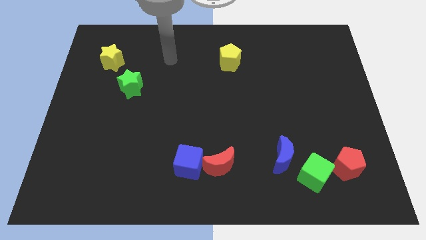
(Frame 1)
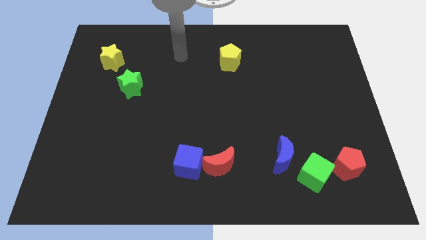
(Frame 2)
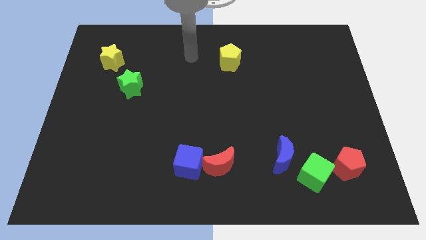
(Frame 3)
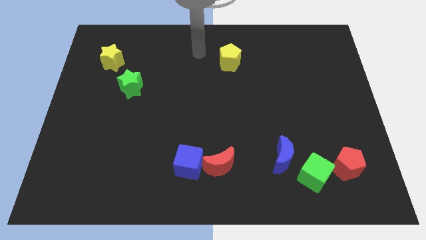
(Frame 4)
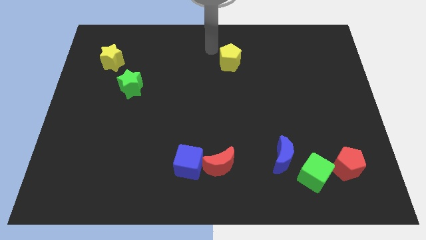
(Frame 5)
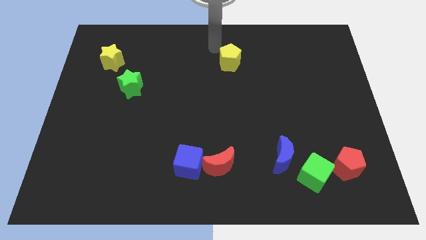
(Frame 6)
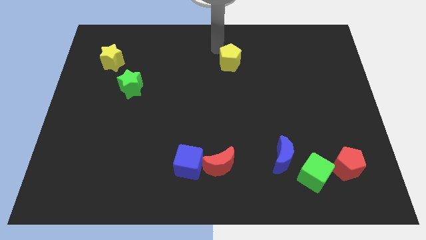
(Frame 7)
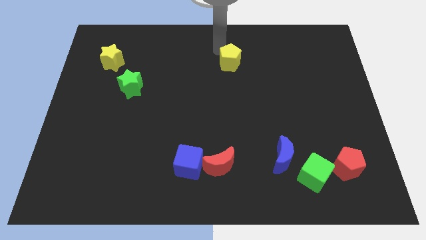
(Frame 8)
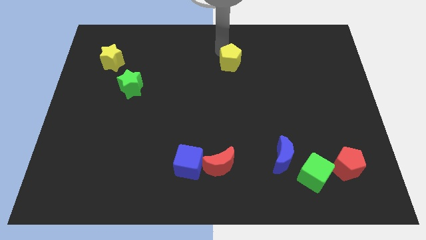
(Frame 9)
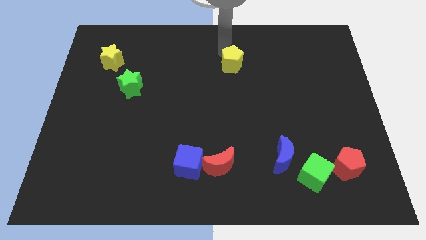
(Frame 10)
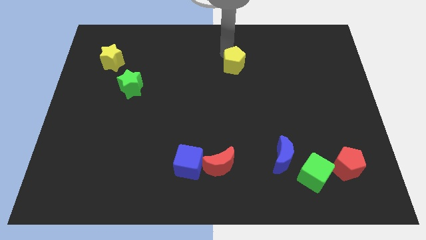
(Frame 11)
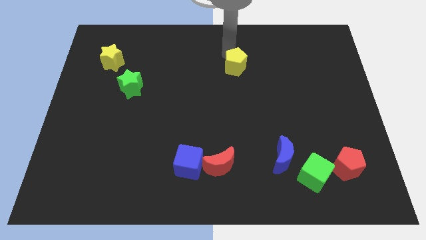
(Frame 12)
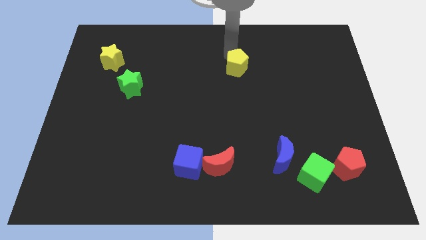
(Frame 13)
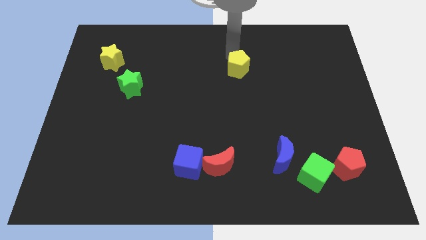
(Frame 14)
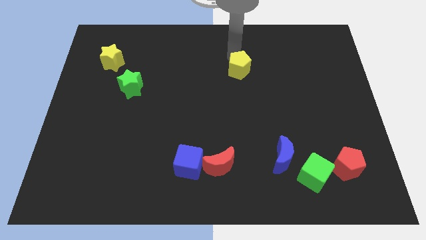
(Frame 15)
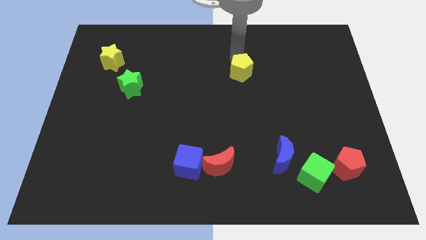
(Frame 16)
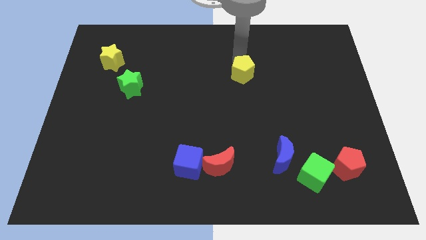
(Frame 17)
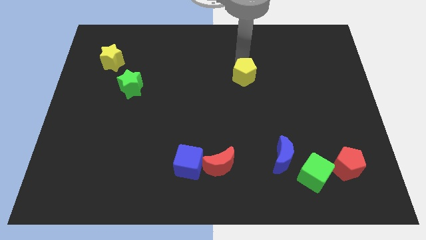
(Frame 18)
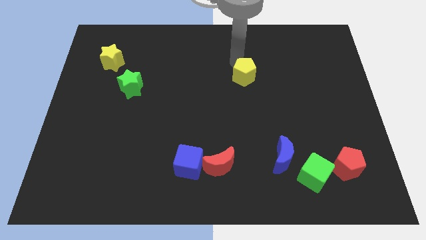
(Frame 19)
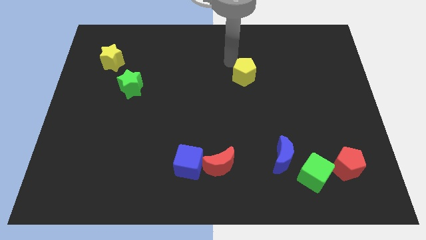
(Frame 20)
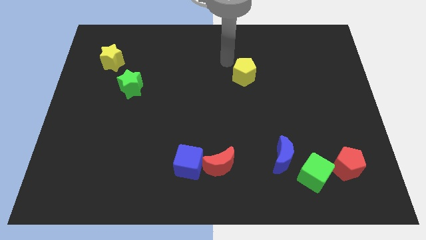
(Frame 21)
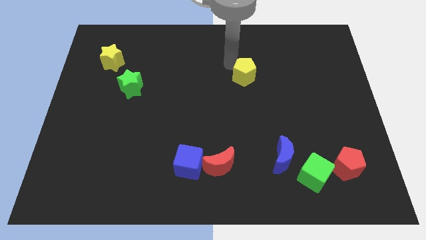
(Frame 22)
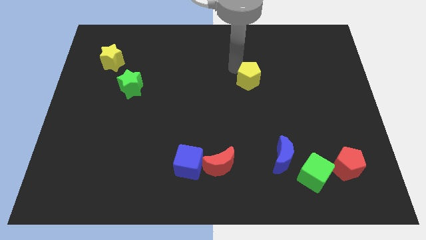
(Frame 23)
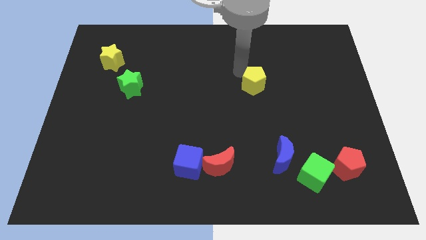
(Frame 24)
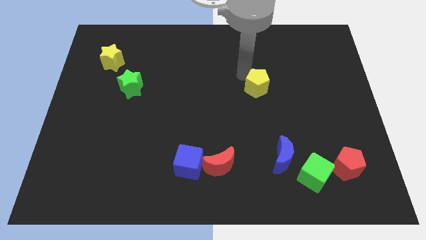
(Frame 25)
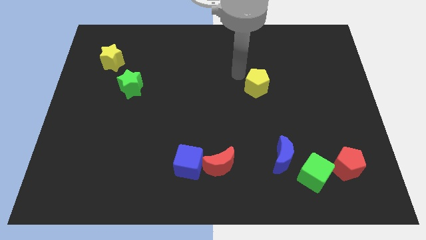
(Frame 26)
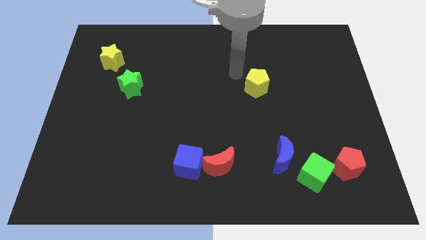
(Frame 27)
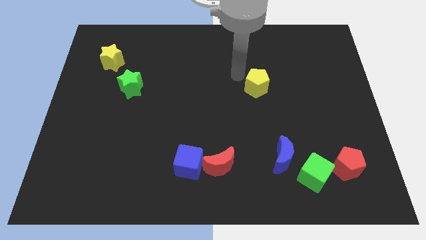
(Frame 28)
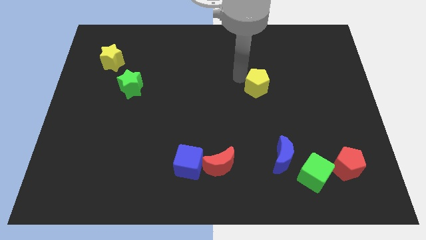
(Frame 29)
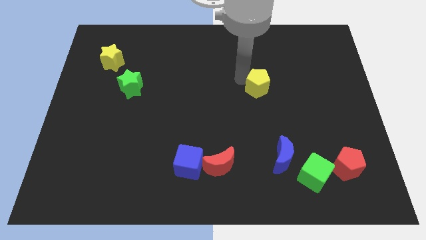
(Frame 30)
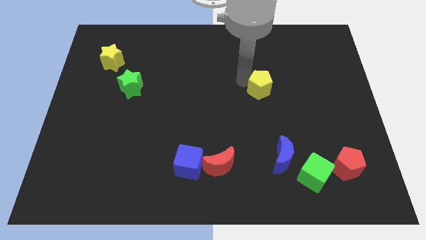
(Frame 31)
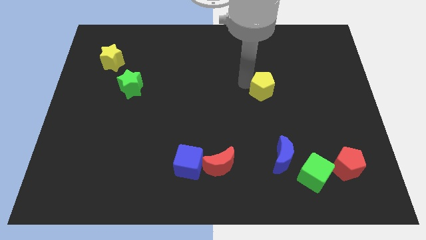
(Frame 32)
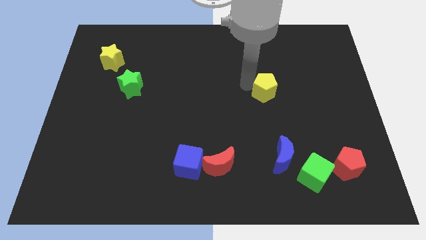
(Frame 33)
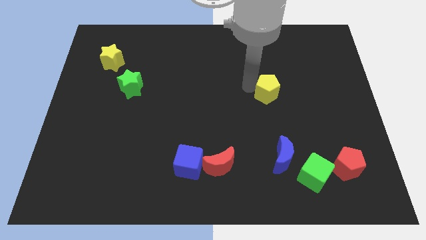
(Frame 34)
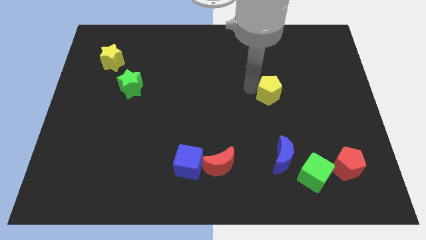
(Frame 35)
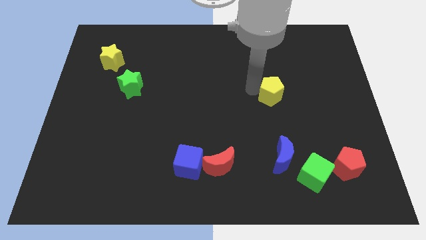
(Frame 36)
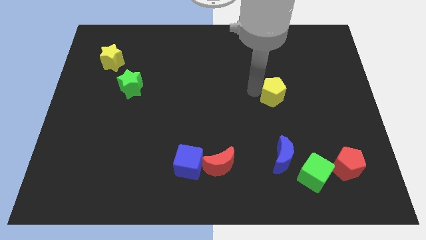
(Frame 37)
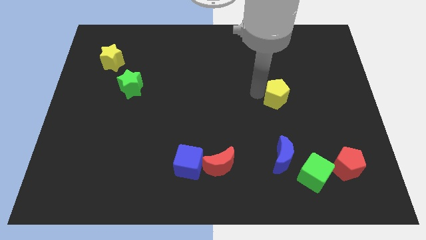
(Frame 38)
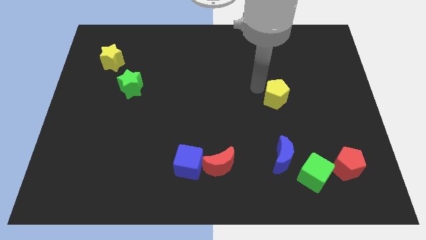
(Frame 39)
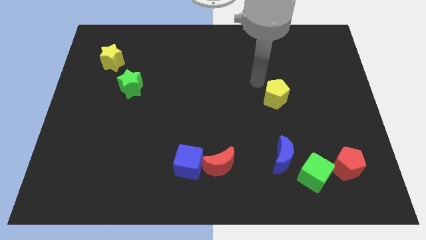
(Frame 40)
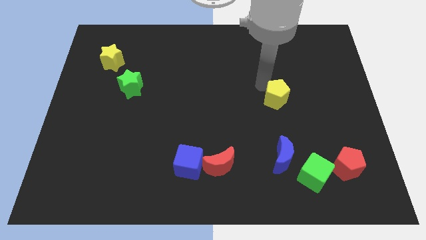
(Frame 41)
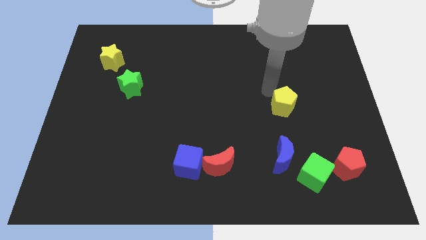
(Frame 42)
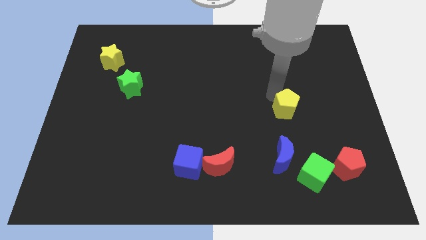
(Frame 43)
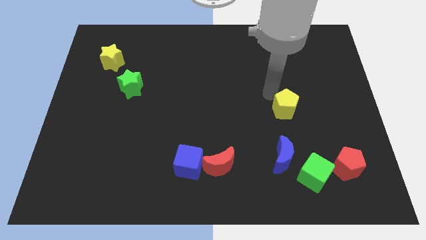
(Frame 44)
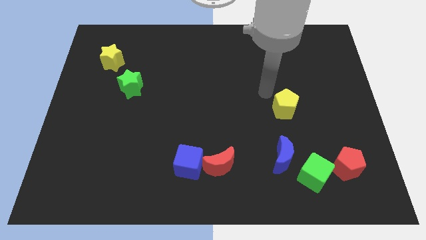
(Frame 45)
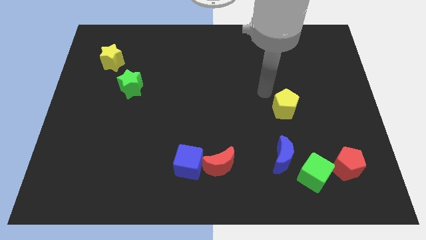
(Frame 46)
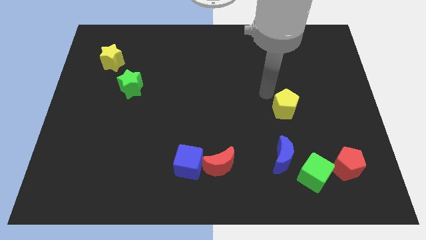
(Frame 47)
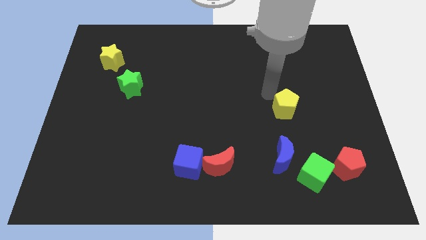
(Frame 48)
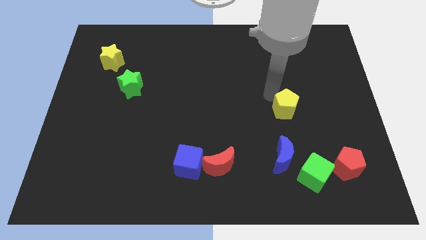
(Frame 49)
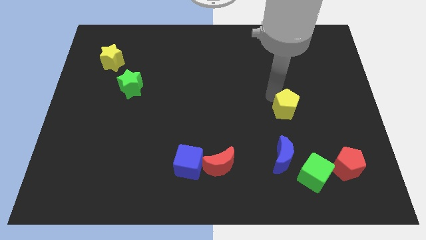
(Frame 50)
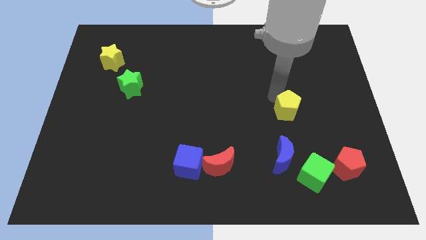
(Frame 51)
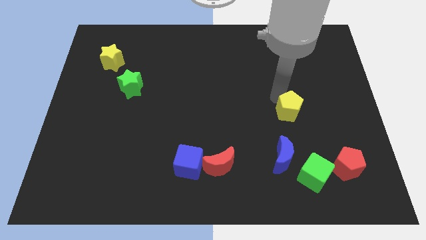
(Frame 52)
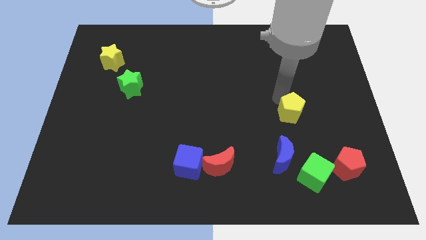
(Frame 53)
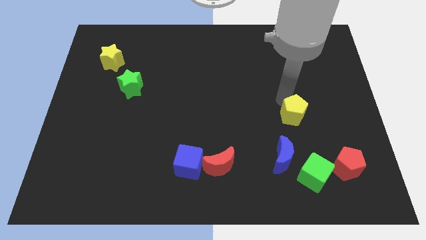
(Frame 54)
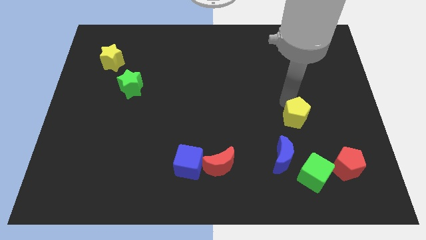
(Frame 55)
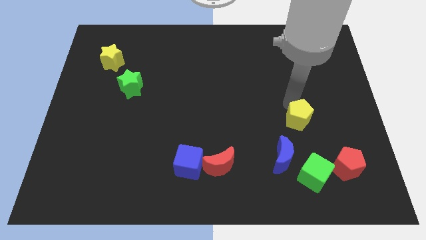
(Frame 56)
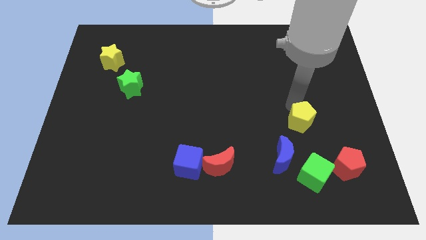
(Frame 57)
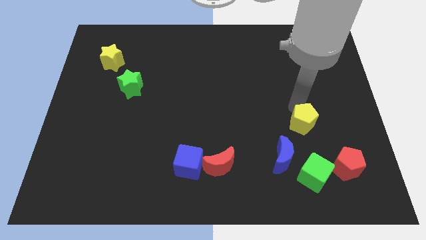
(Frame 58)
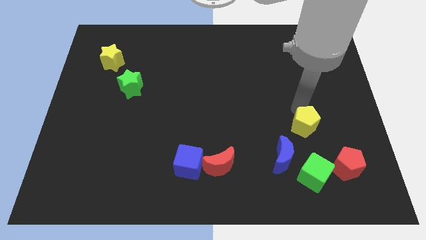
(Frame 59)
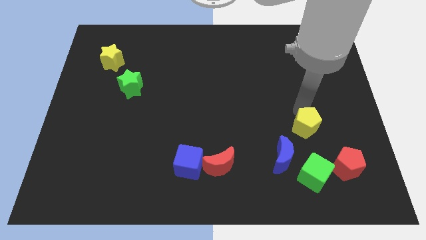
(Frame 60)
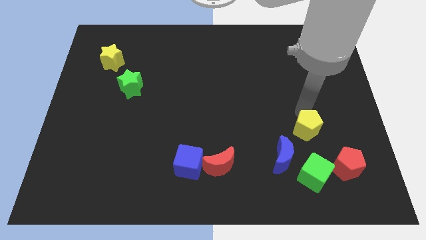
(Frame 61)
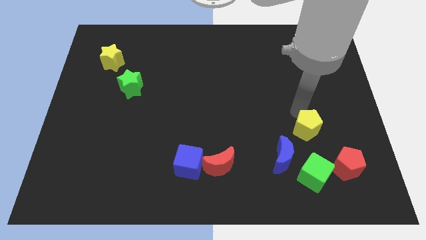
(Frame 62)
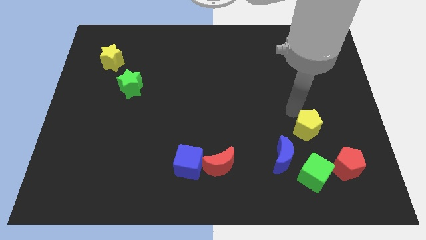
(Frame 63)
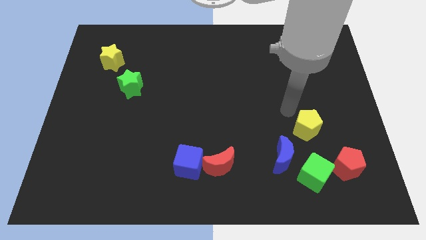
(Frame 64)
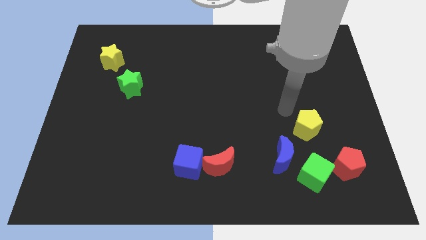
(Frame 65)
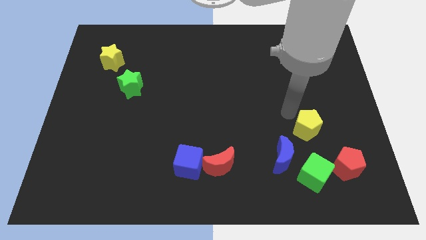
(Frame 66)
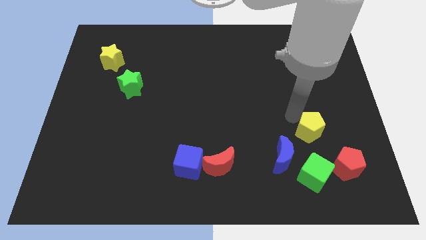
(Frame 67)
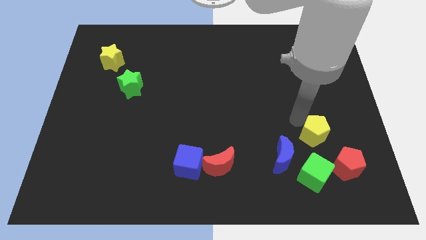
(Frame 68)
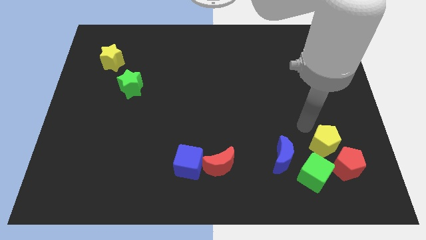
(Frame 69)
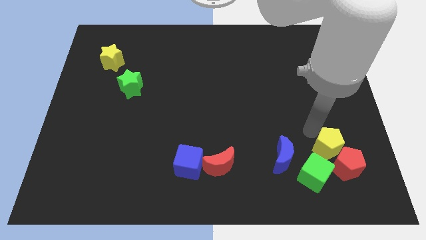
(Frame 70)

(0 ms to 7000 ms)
put the yellow pentagon towards the red pentagon
